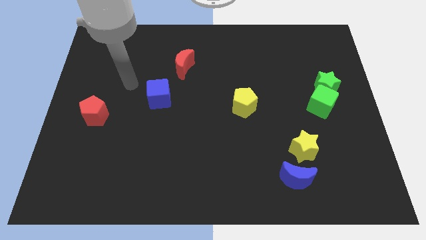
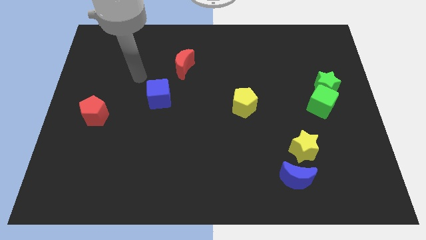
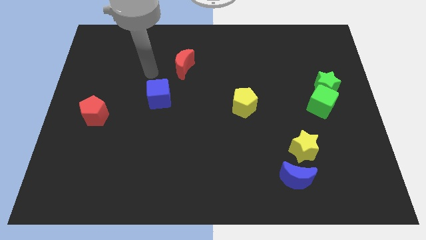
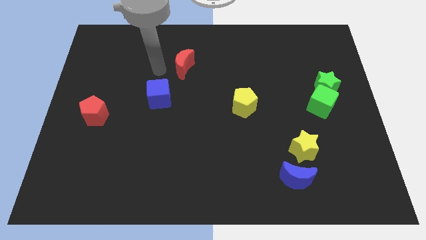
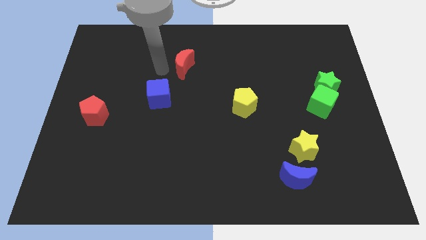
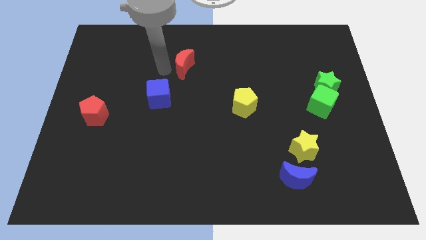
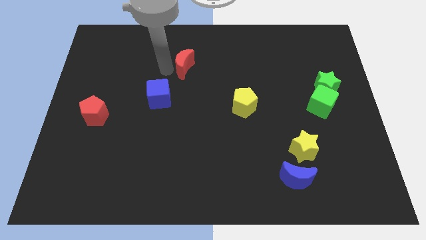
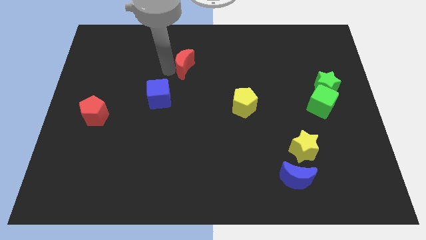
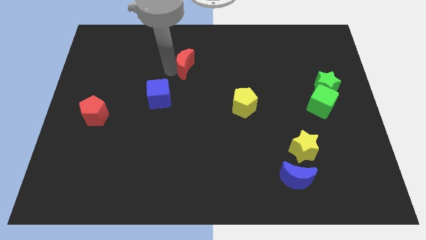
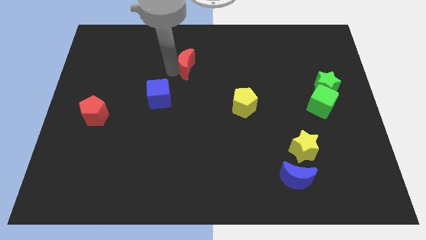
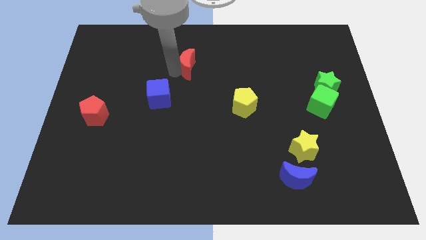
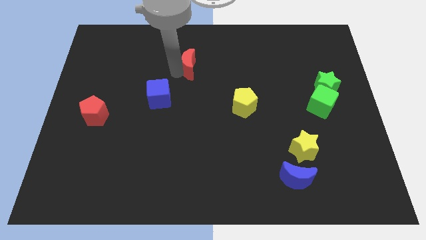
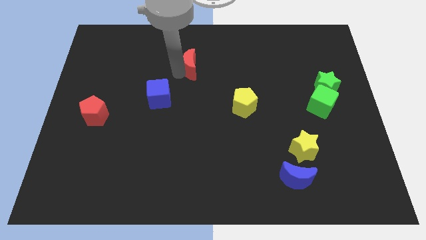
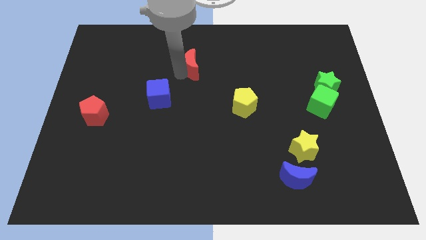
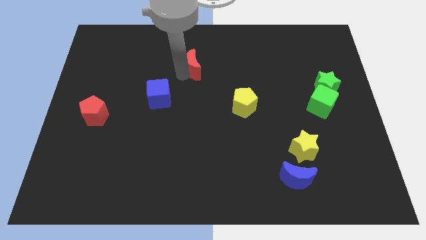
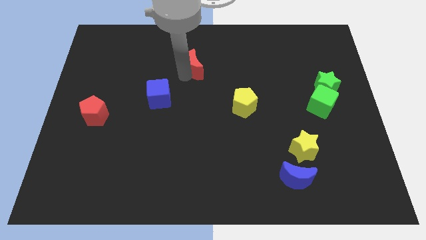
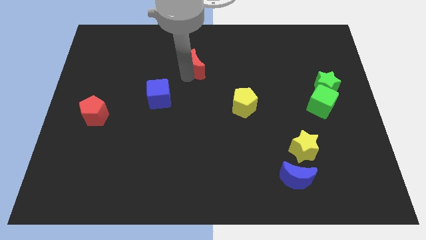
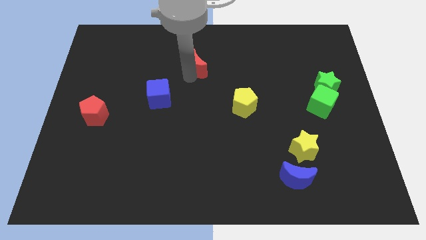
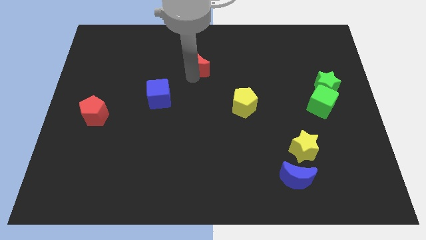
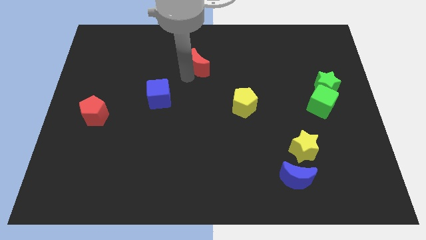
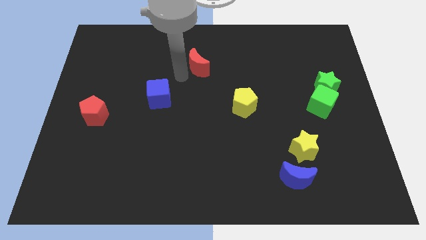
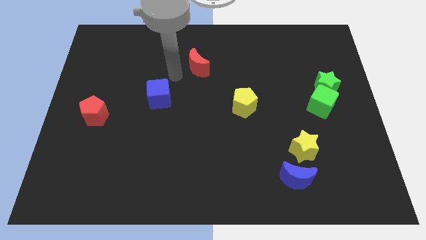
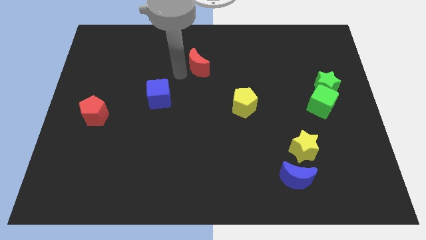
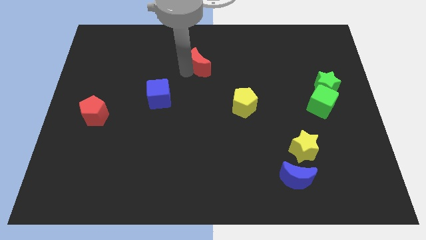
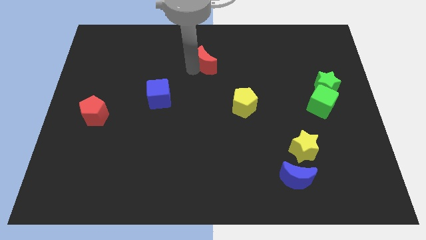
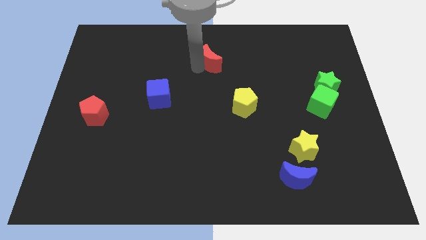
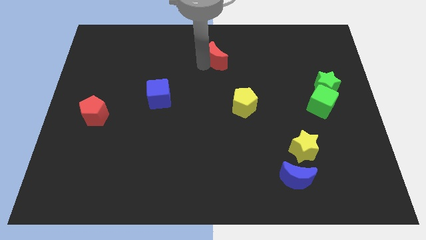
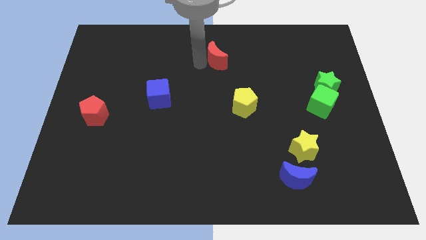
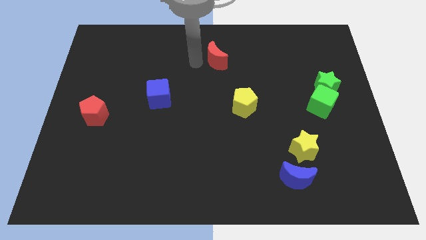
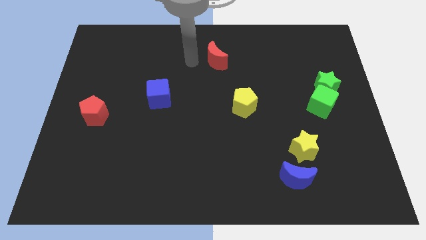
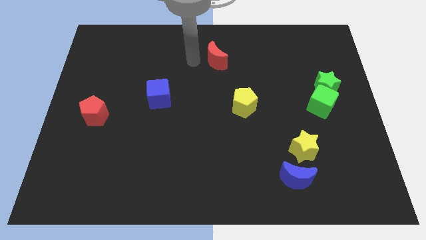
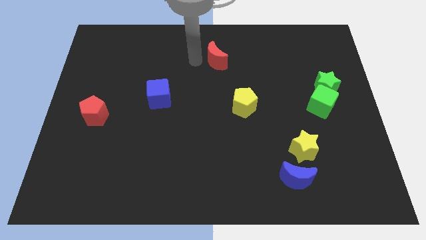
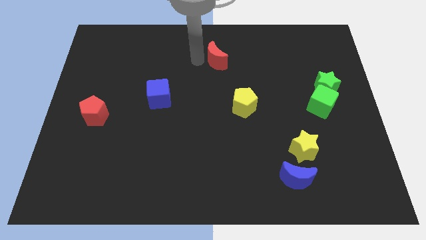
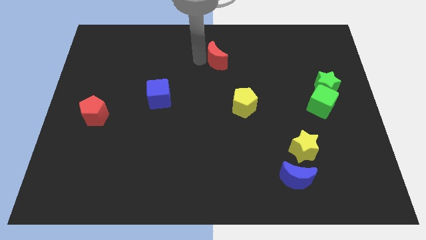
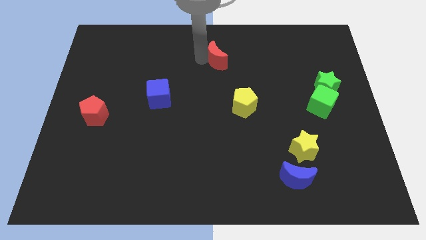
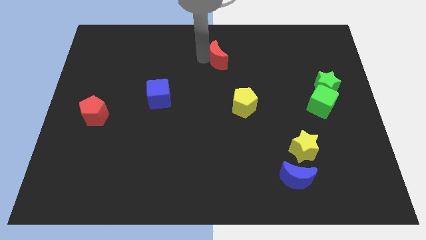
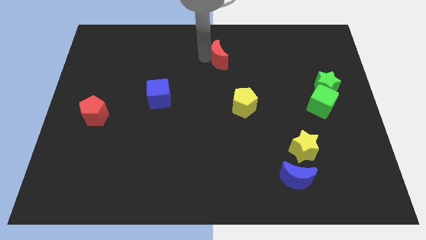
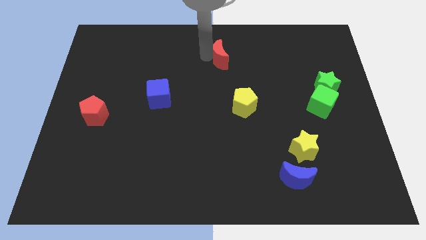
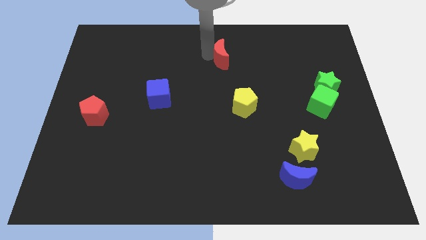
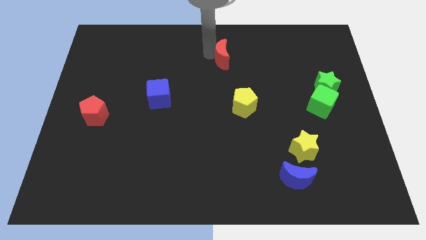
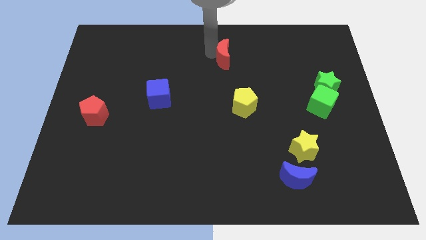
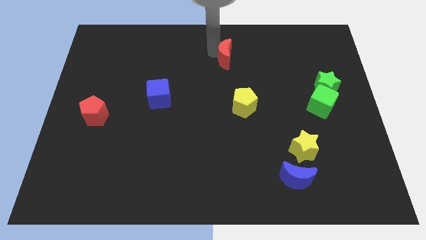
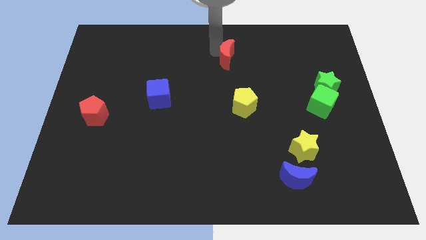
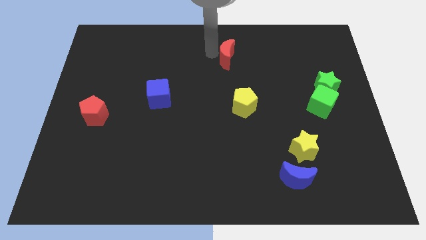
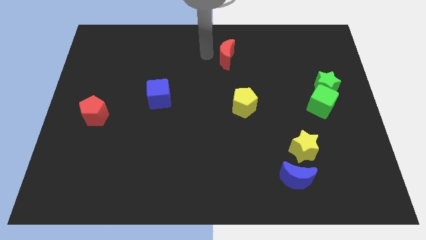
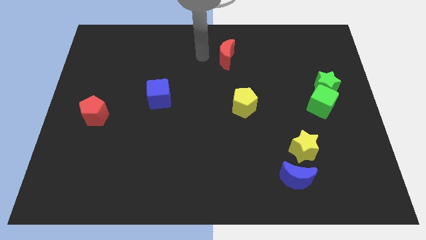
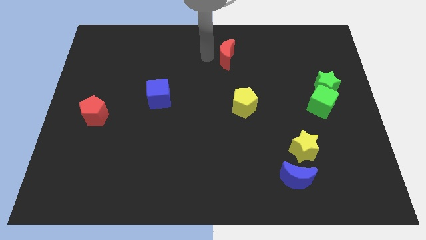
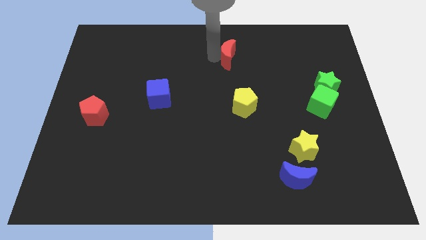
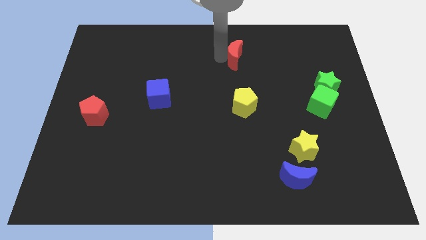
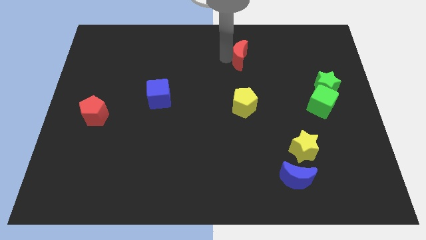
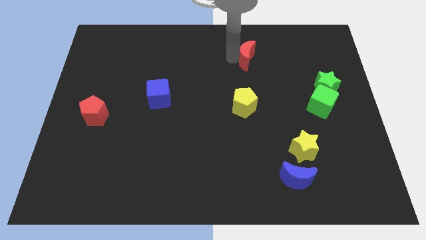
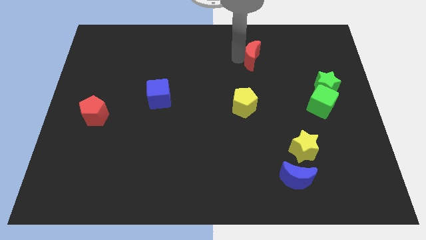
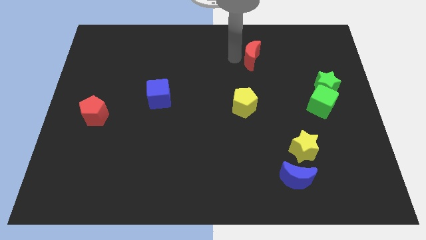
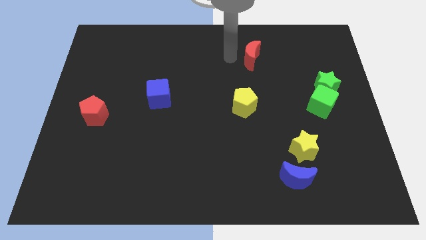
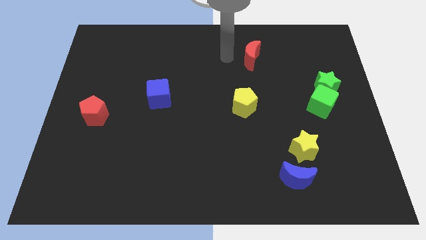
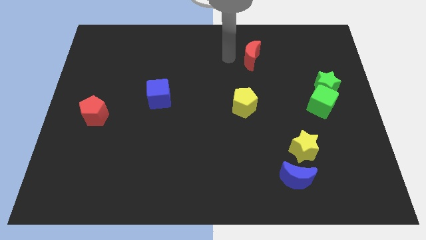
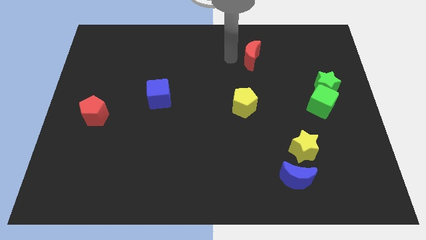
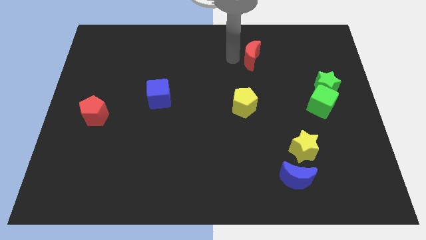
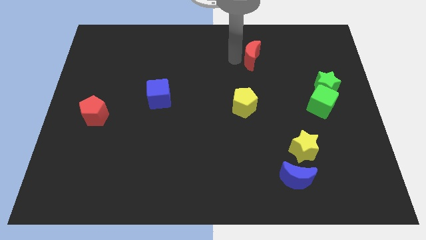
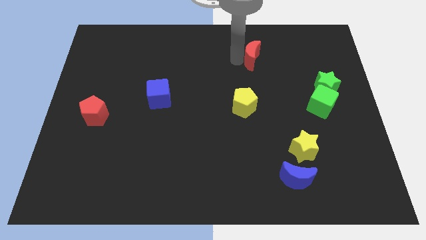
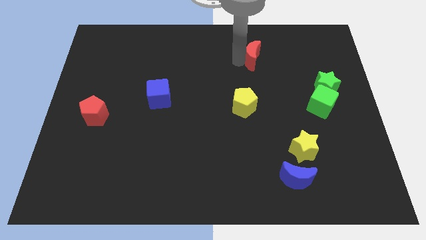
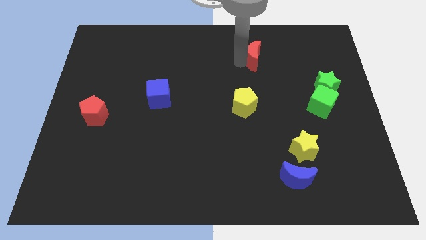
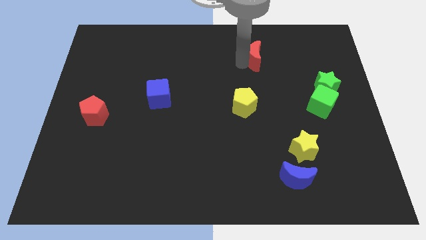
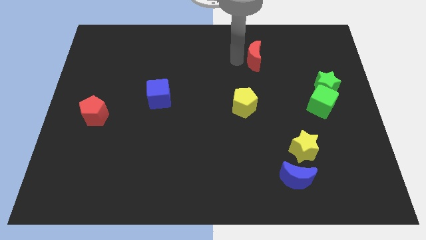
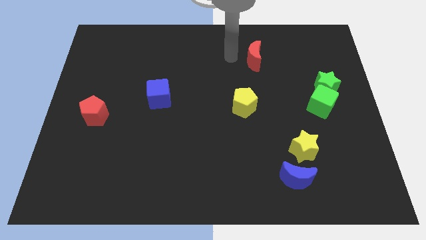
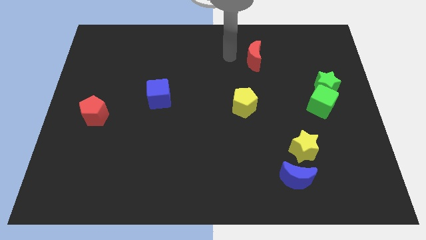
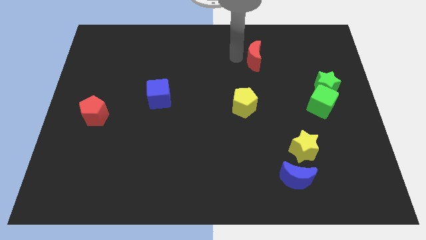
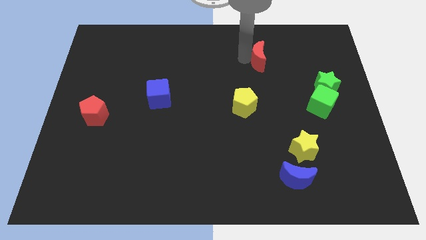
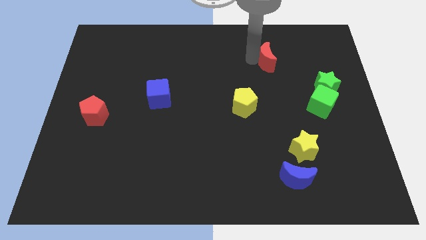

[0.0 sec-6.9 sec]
slide the red moon to the right

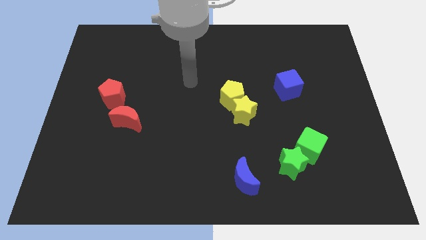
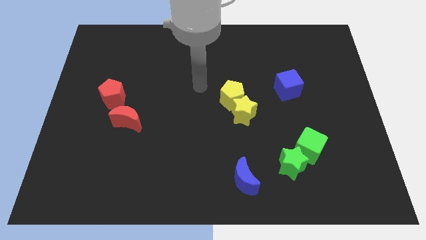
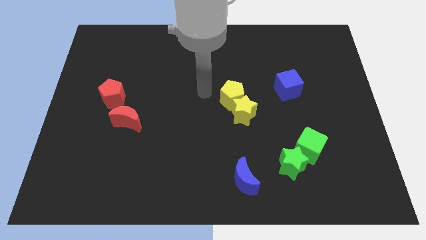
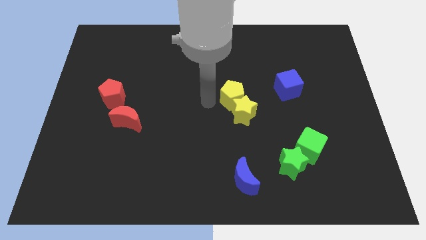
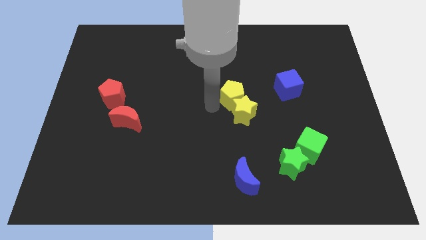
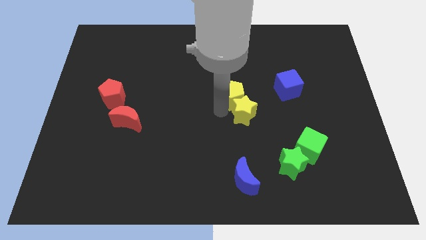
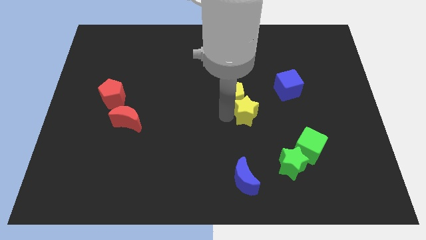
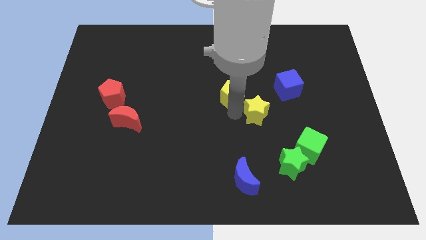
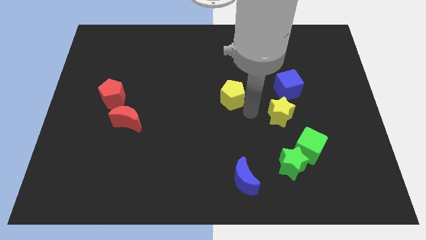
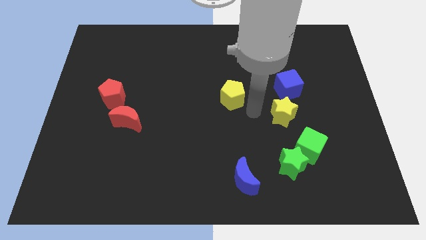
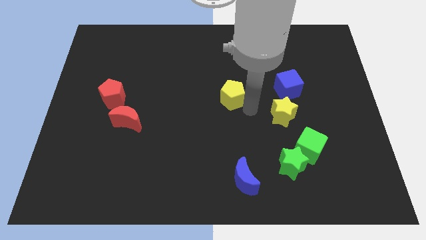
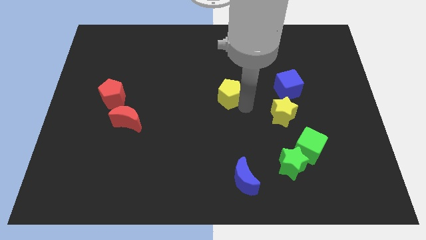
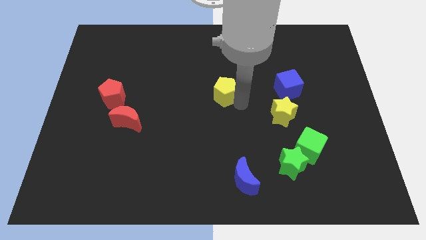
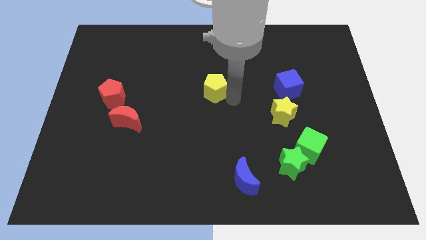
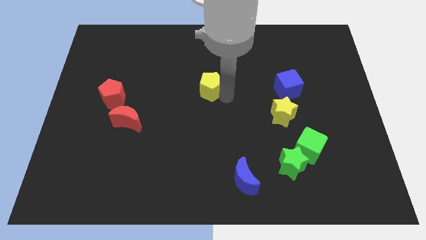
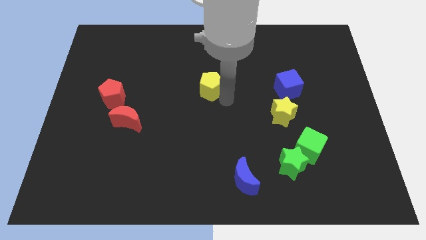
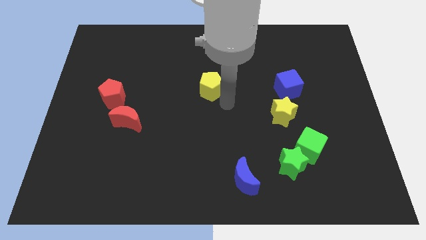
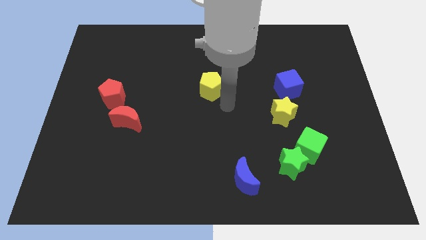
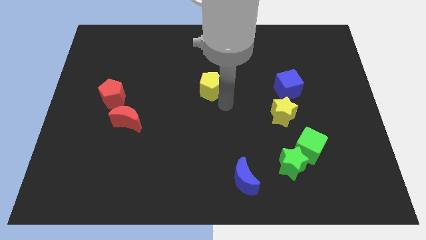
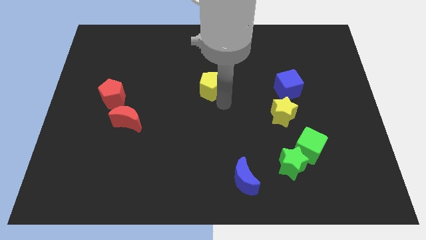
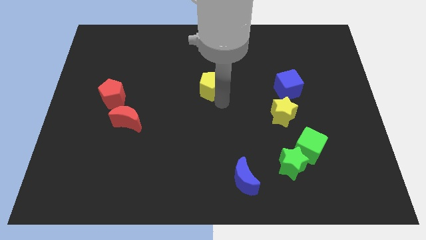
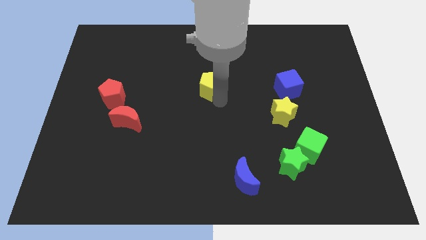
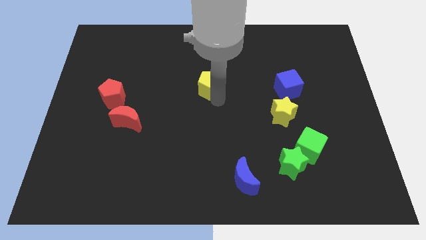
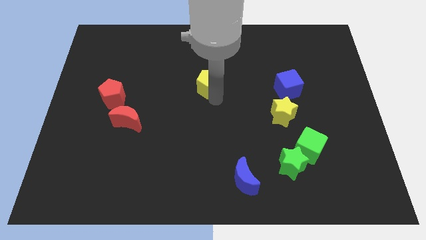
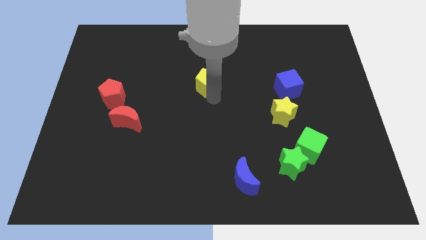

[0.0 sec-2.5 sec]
move the yellow pentagon a bit diagonally up and to the left
